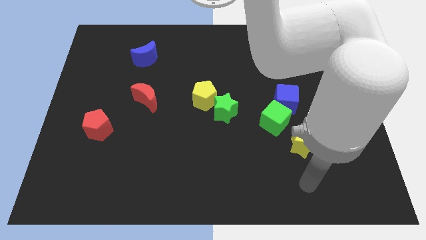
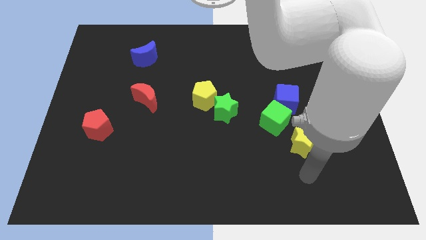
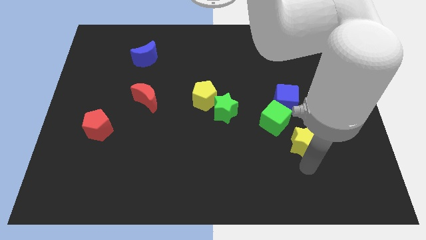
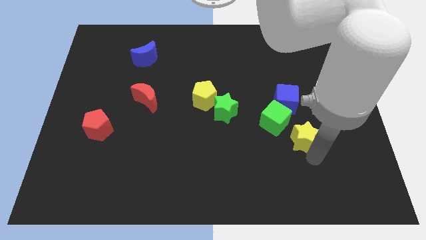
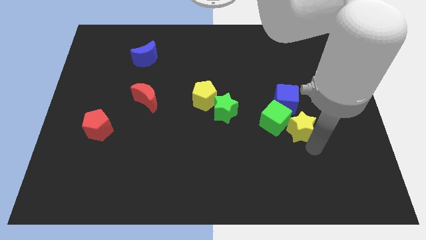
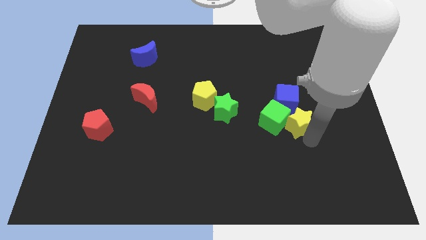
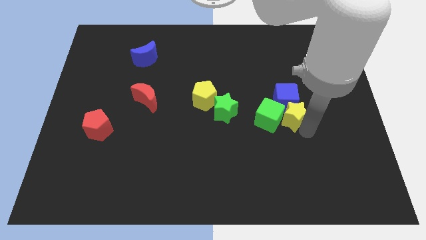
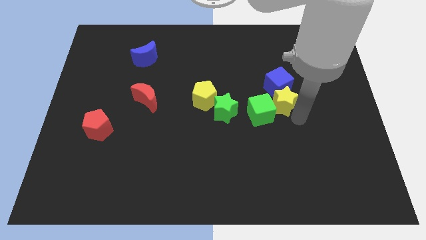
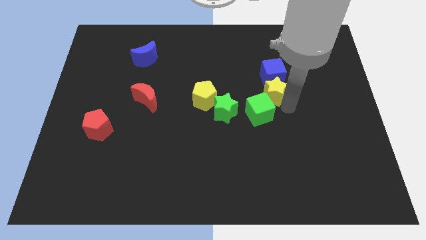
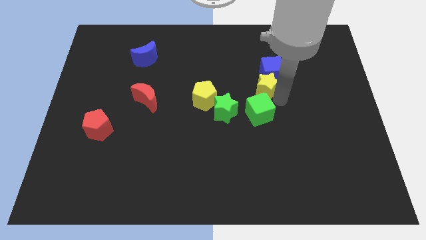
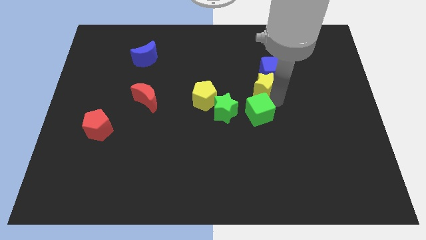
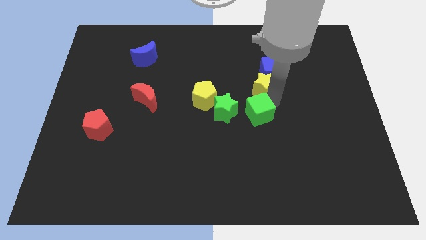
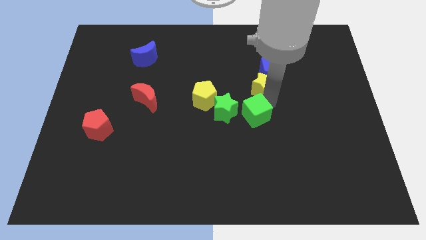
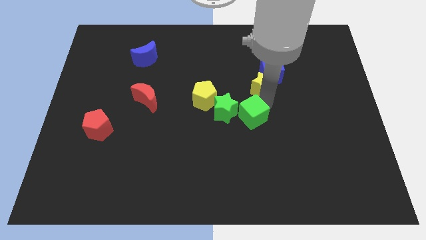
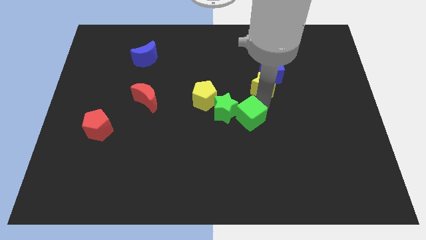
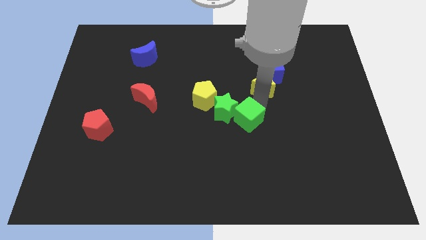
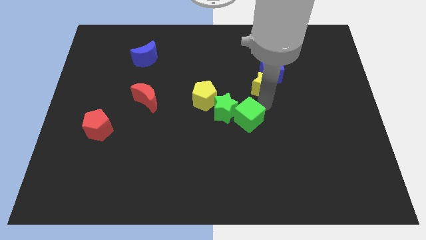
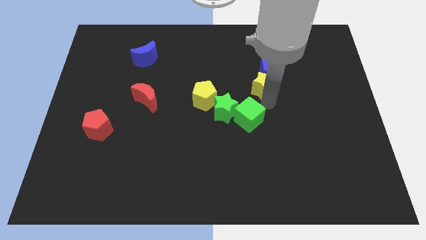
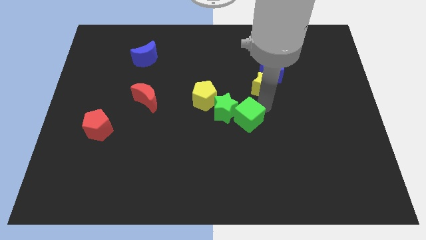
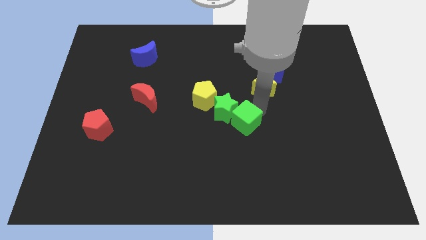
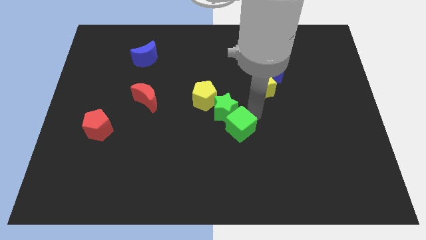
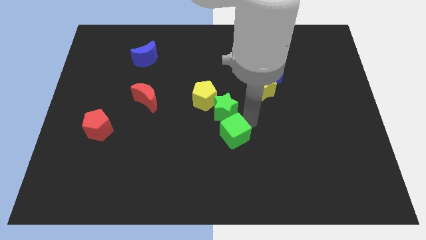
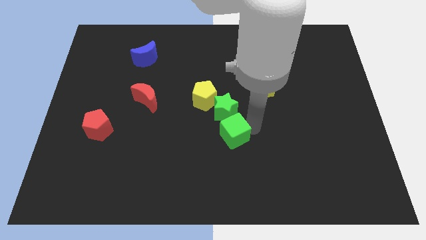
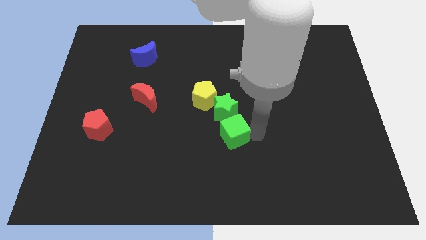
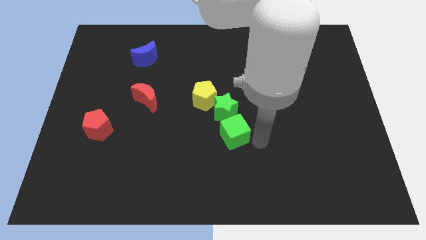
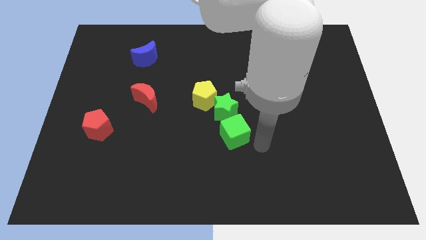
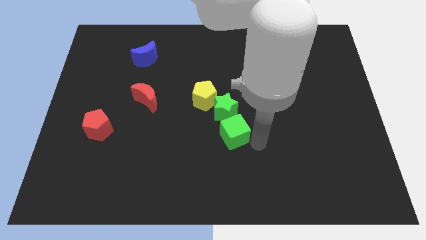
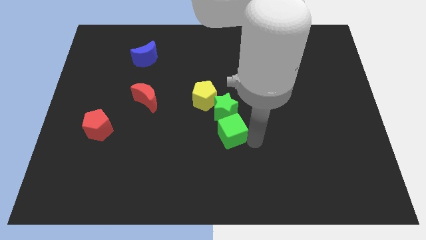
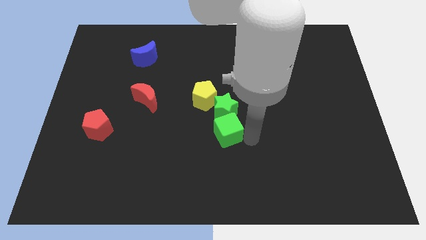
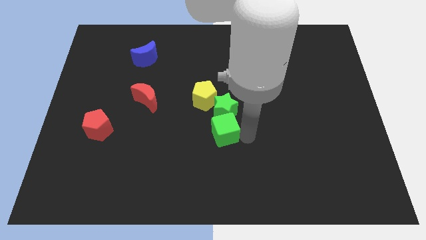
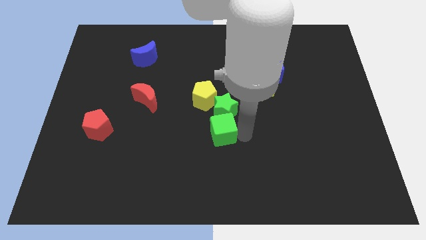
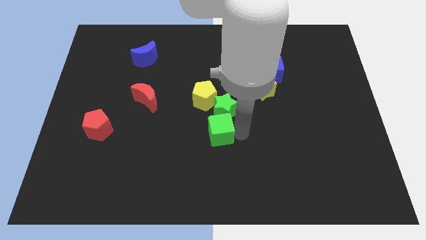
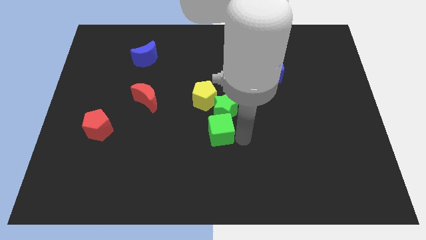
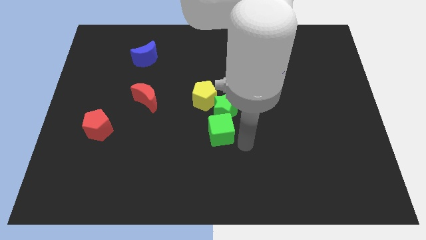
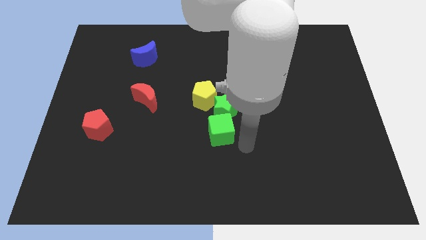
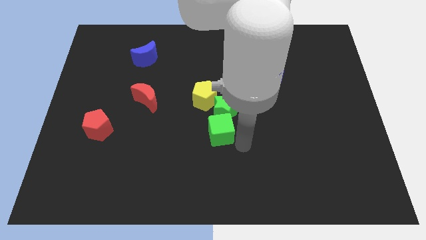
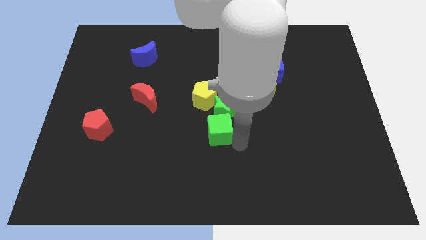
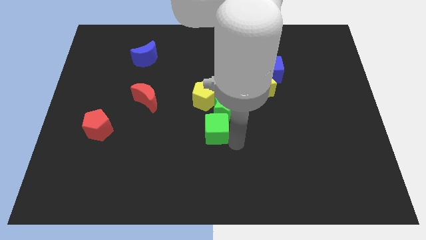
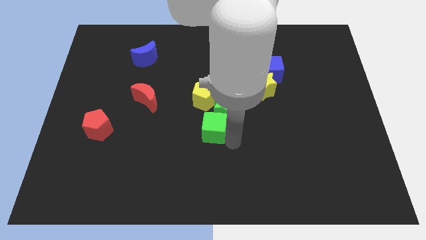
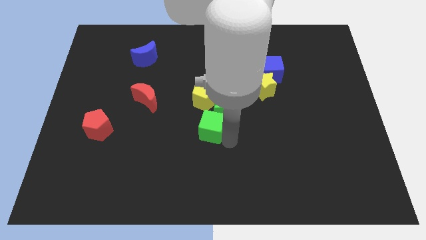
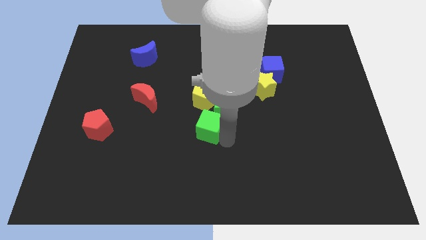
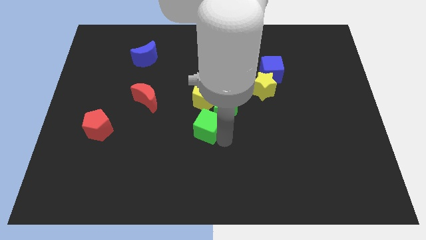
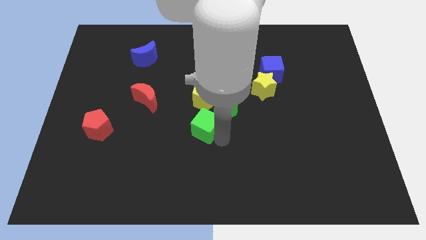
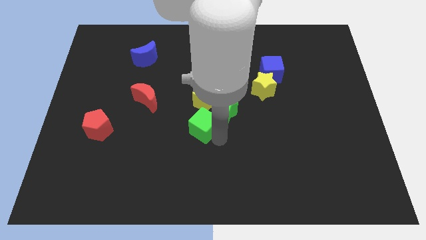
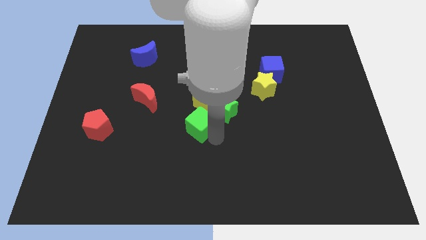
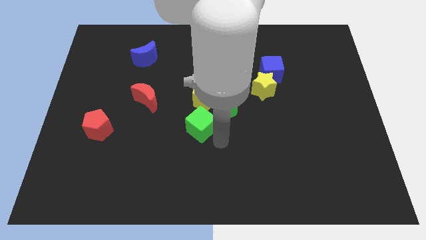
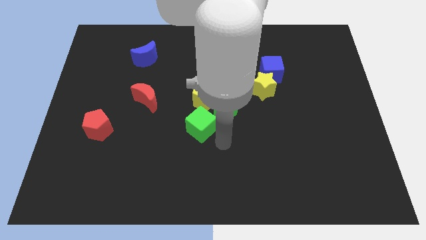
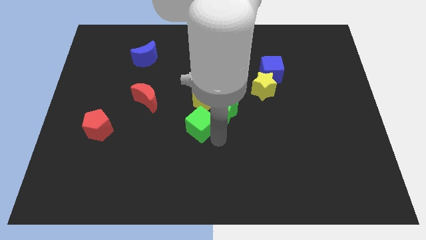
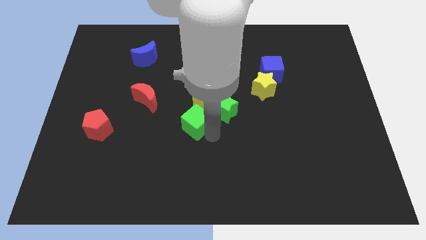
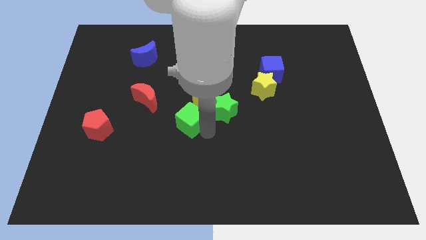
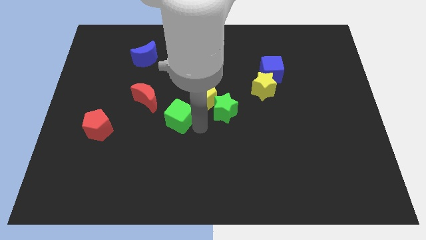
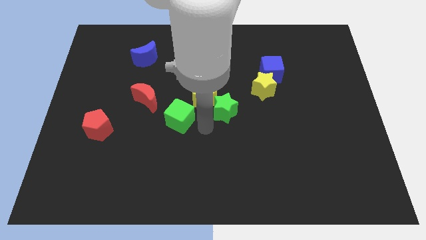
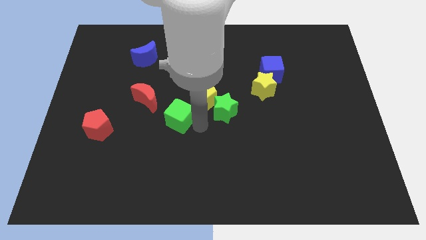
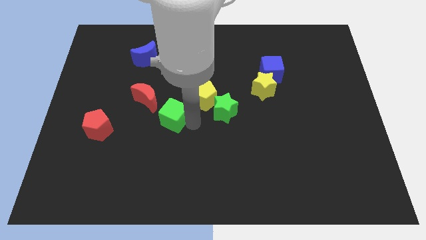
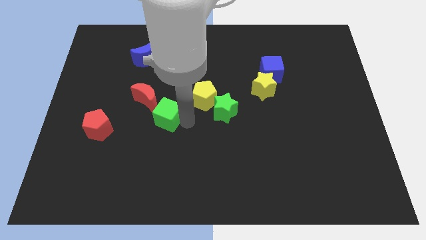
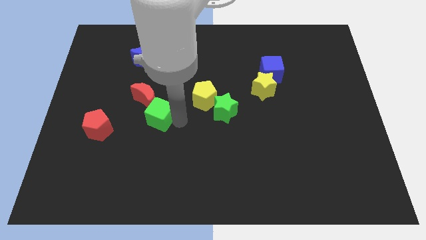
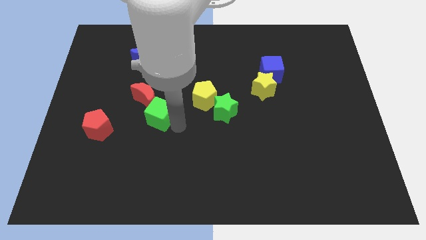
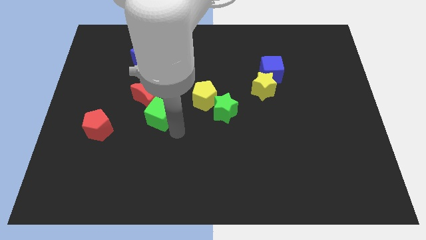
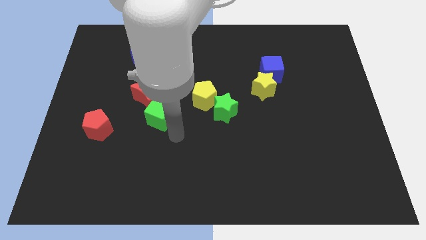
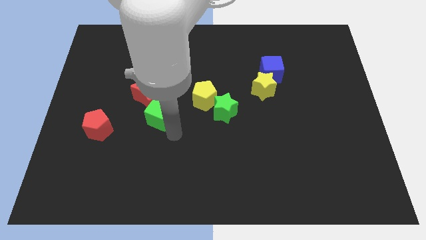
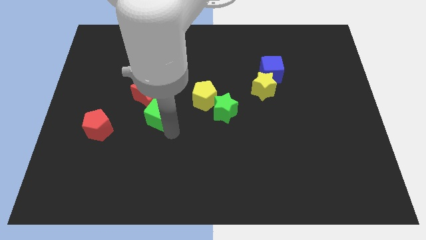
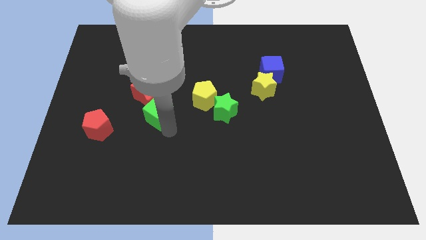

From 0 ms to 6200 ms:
move the green cube to the red moon

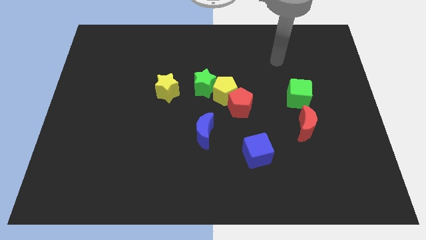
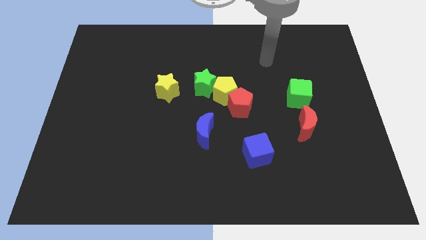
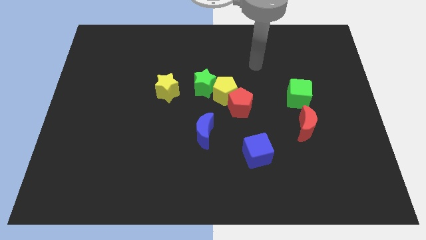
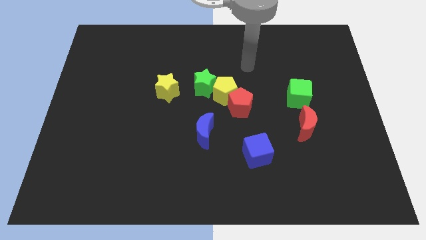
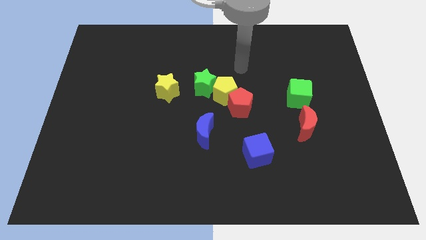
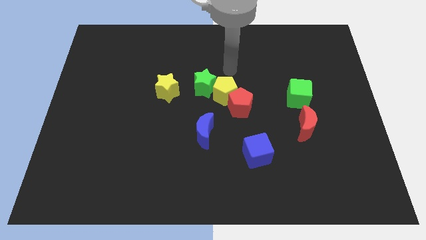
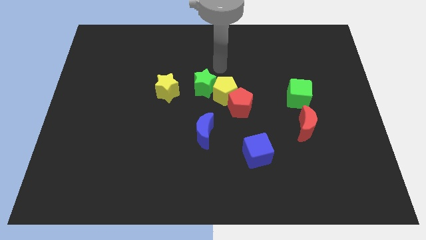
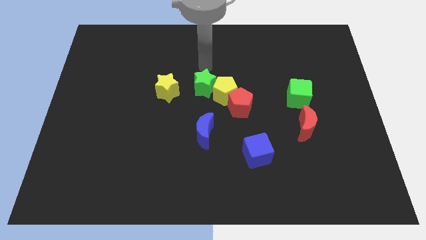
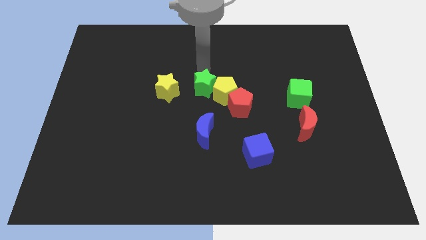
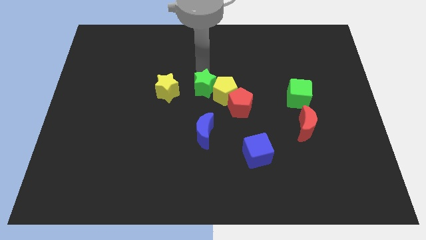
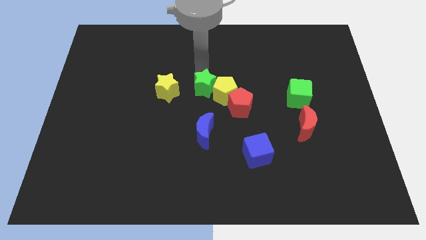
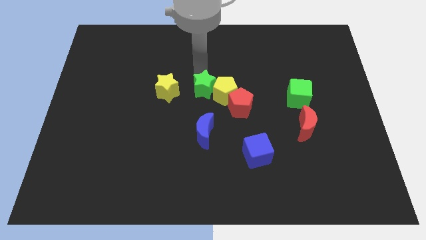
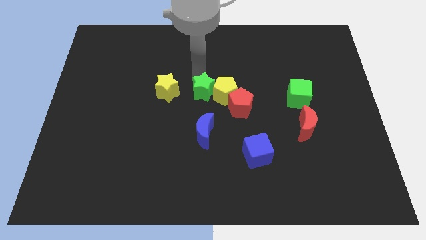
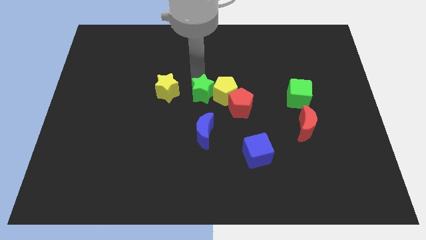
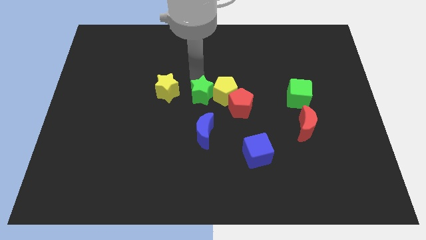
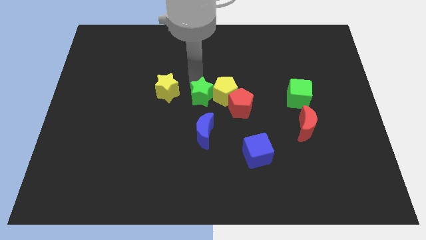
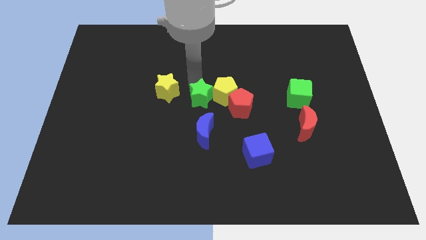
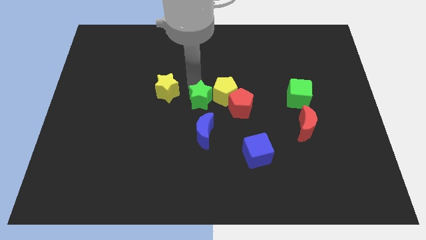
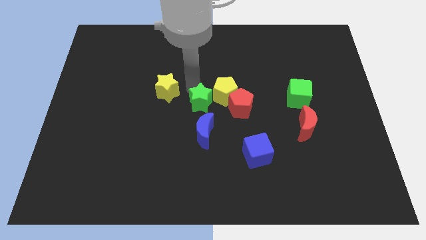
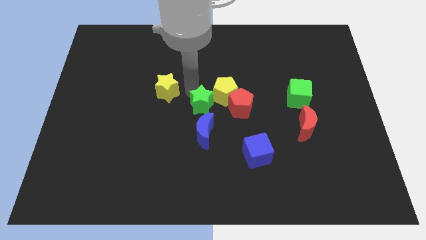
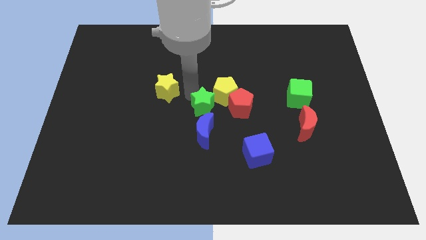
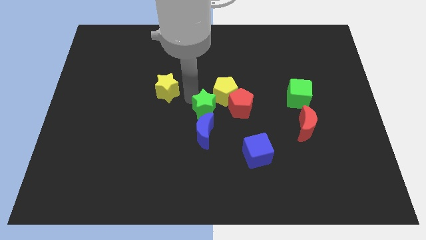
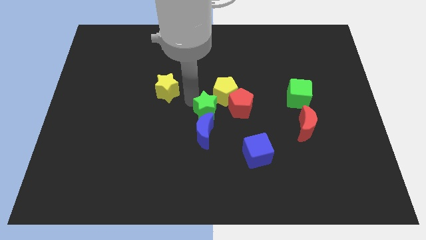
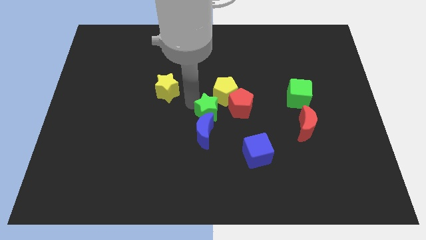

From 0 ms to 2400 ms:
push the green star next to the blue moon
